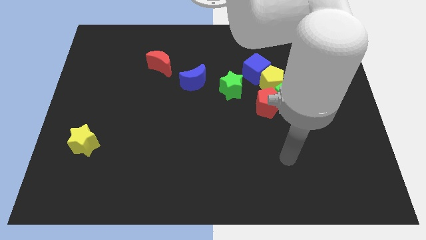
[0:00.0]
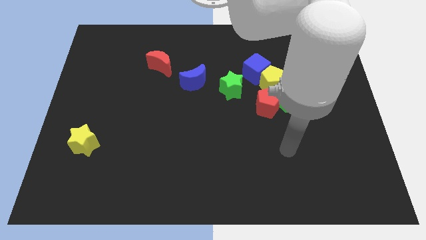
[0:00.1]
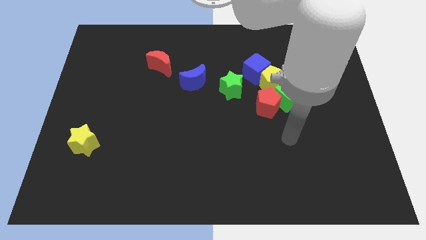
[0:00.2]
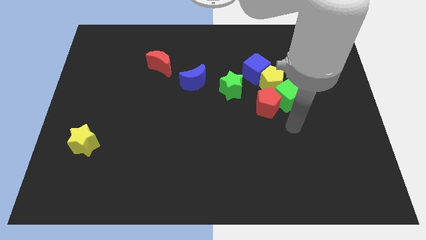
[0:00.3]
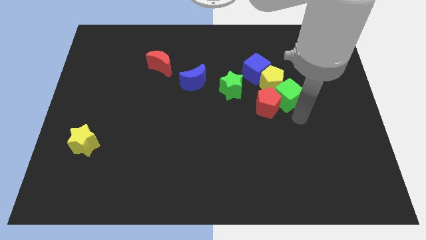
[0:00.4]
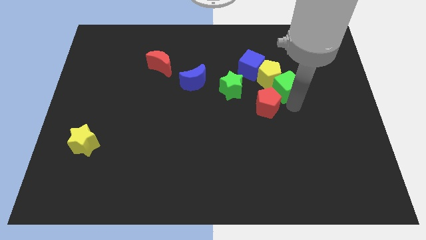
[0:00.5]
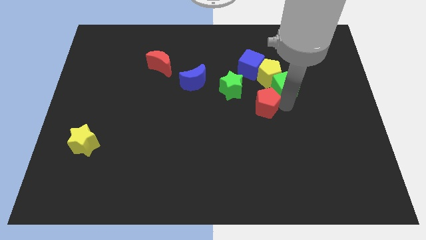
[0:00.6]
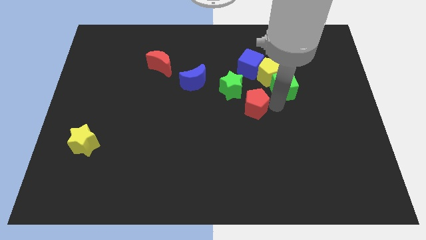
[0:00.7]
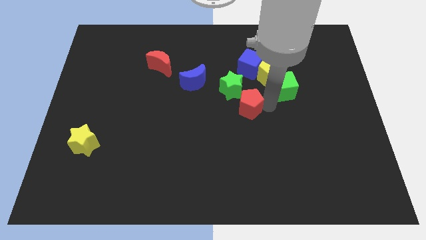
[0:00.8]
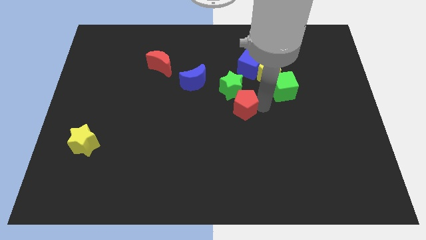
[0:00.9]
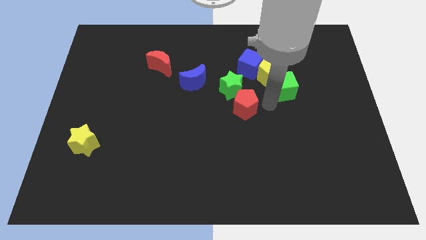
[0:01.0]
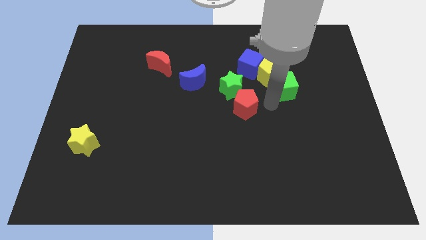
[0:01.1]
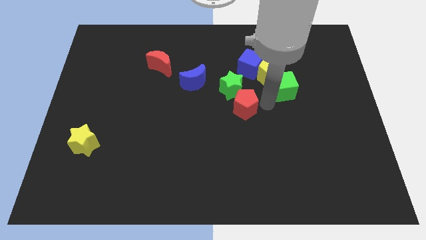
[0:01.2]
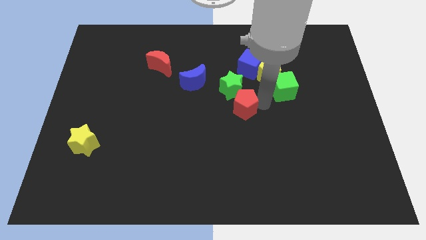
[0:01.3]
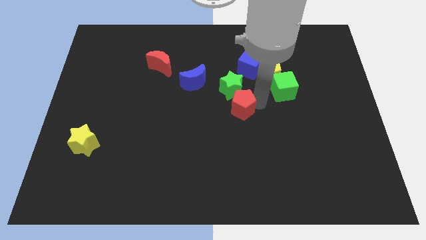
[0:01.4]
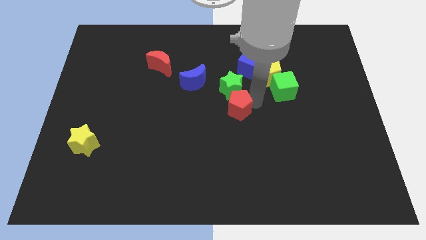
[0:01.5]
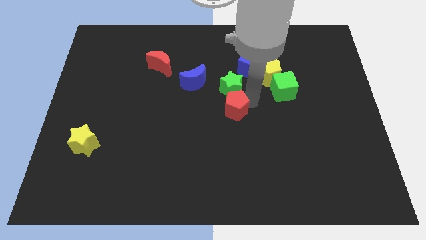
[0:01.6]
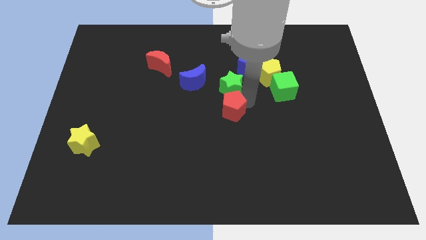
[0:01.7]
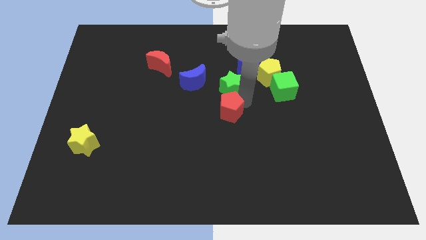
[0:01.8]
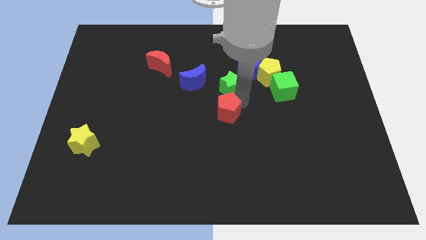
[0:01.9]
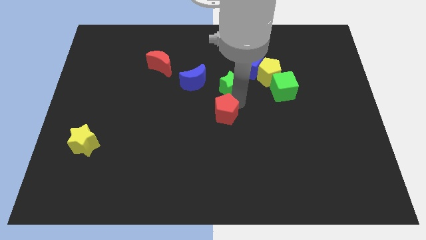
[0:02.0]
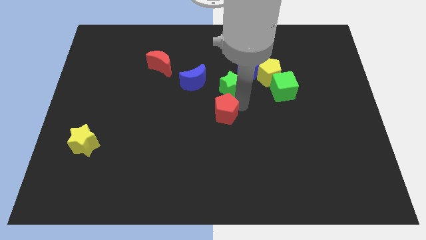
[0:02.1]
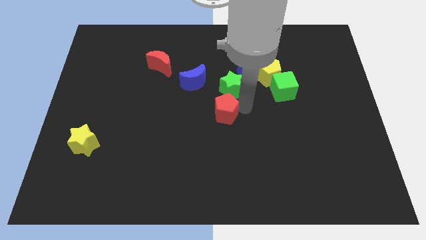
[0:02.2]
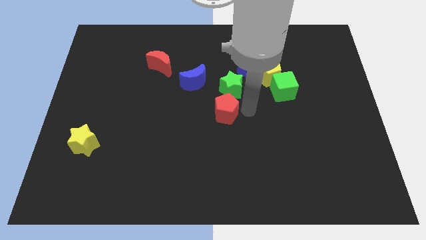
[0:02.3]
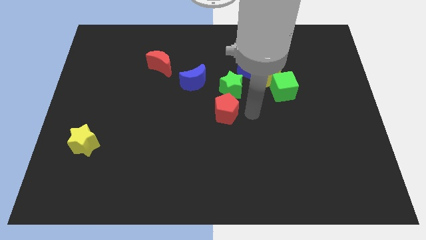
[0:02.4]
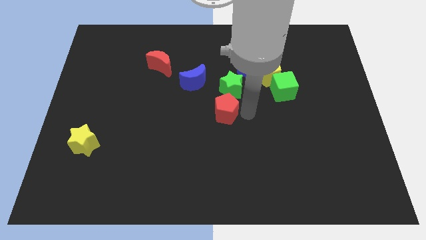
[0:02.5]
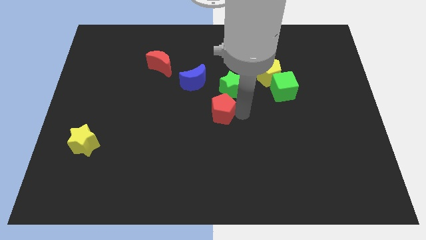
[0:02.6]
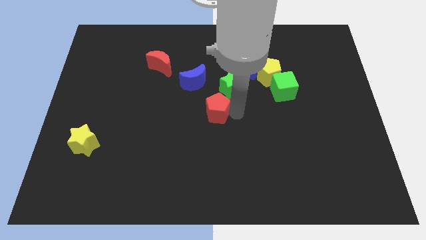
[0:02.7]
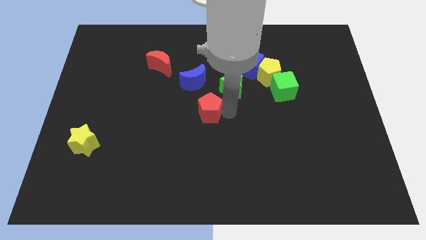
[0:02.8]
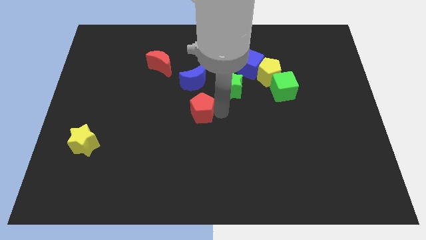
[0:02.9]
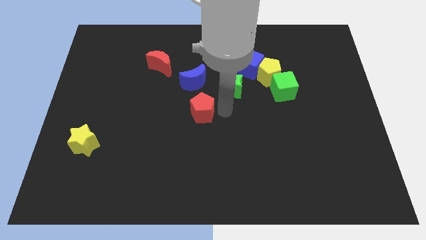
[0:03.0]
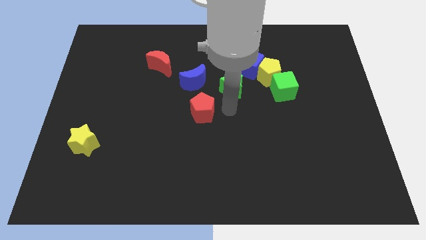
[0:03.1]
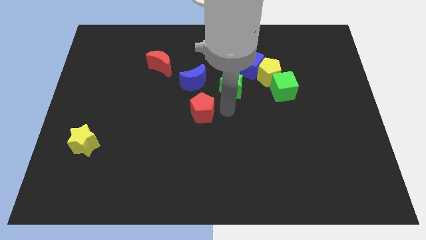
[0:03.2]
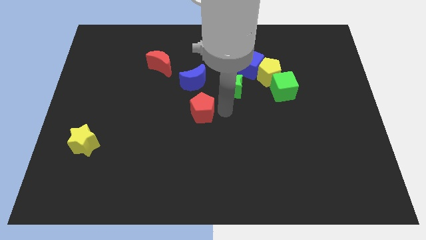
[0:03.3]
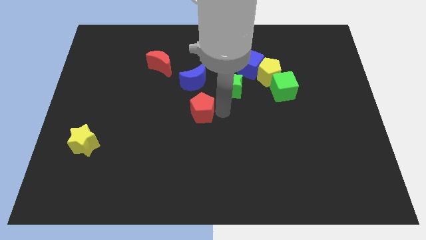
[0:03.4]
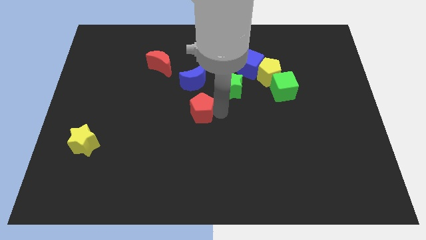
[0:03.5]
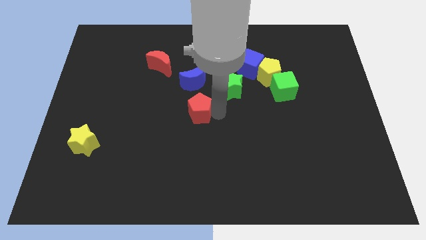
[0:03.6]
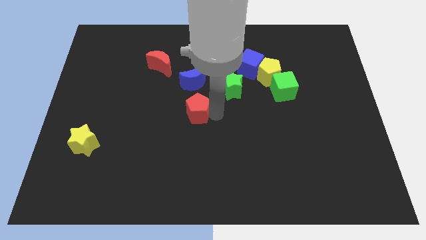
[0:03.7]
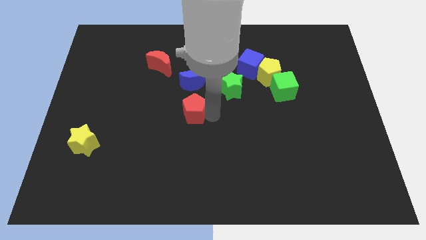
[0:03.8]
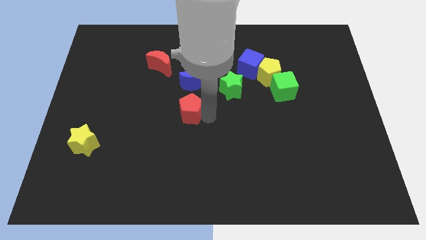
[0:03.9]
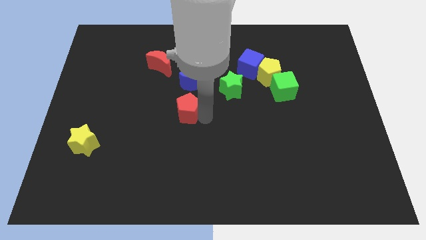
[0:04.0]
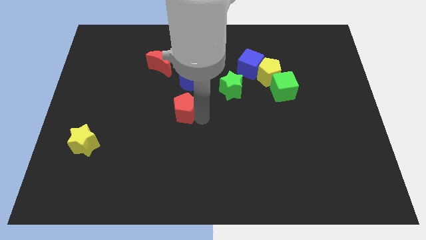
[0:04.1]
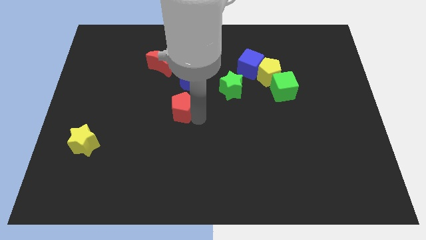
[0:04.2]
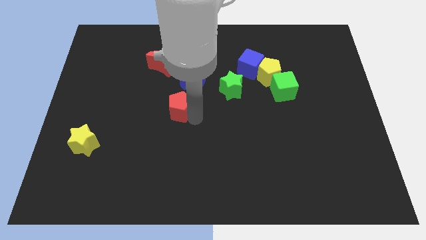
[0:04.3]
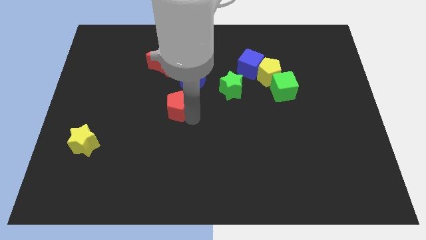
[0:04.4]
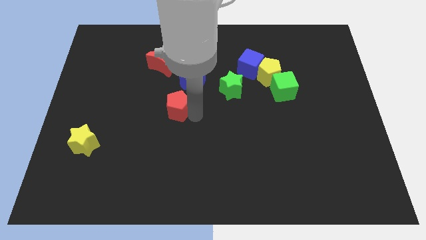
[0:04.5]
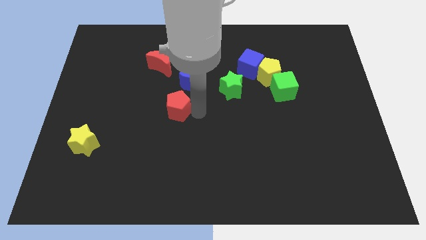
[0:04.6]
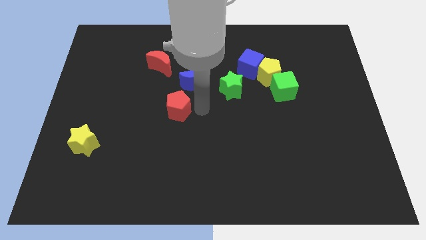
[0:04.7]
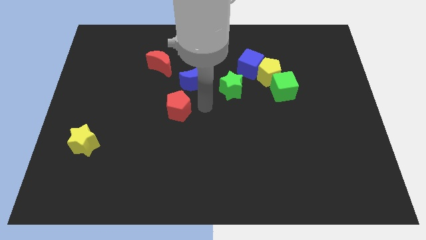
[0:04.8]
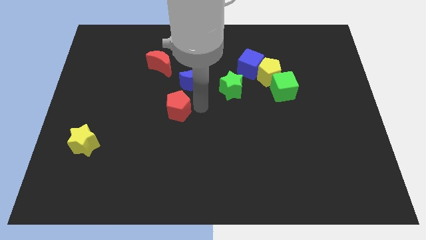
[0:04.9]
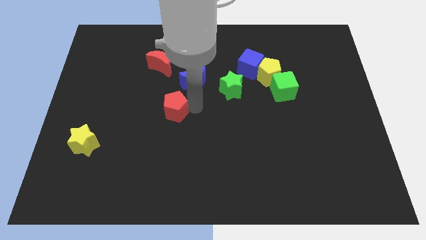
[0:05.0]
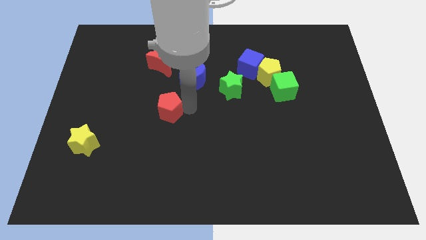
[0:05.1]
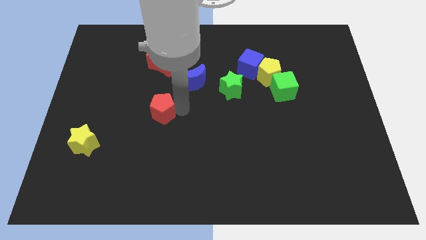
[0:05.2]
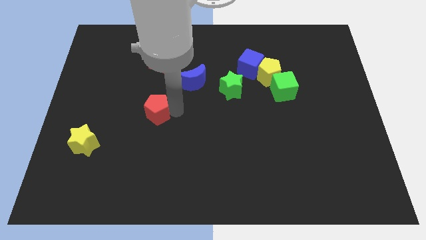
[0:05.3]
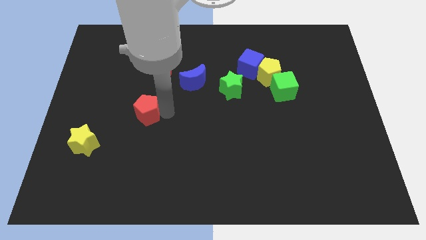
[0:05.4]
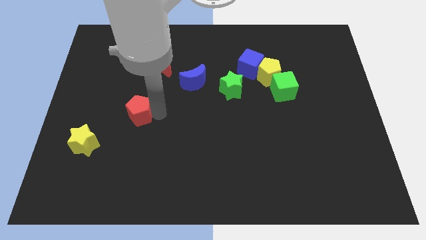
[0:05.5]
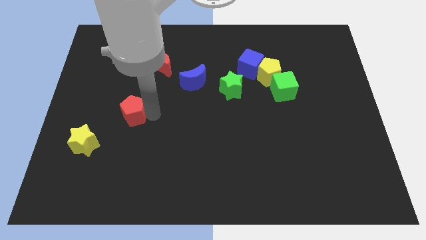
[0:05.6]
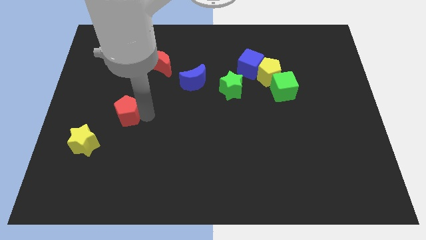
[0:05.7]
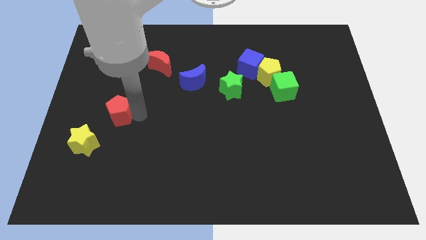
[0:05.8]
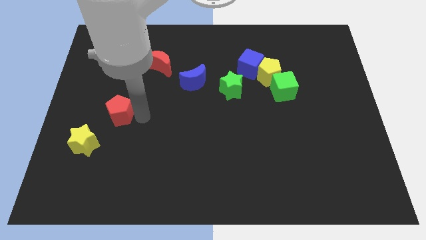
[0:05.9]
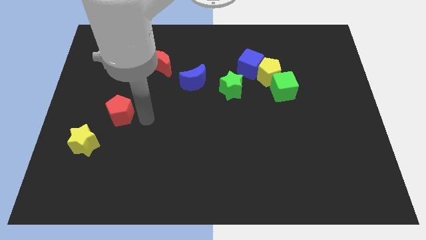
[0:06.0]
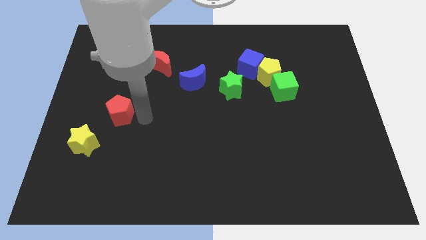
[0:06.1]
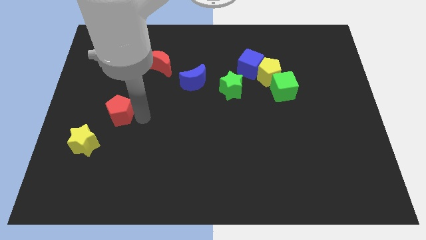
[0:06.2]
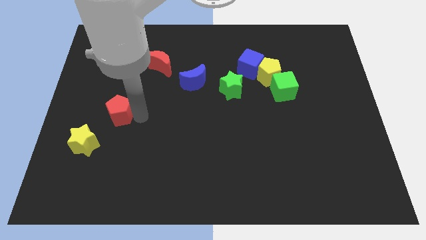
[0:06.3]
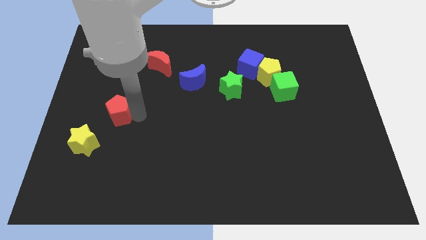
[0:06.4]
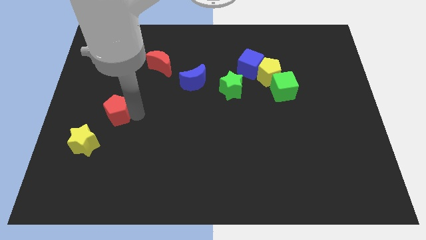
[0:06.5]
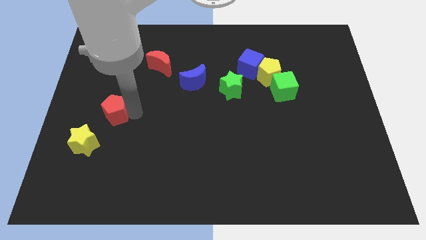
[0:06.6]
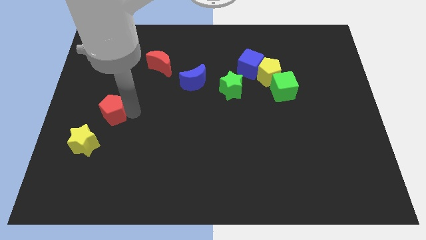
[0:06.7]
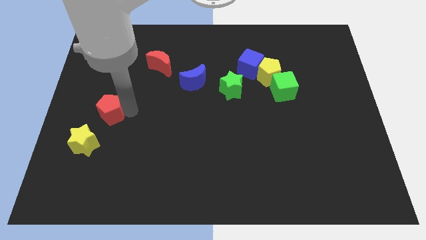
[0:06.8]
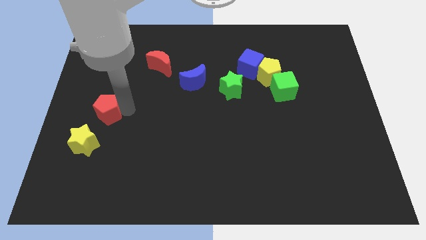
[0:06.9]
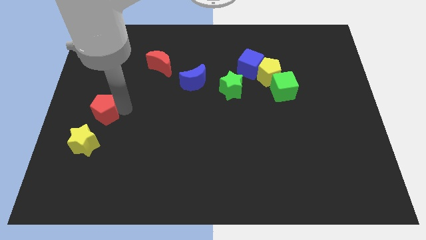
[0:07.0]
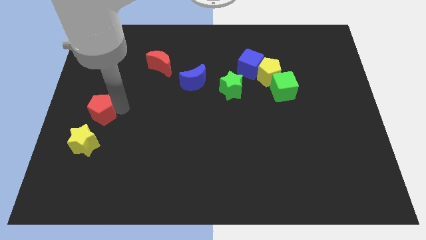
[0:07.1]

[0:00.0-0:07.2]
slide the red pentagon to the left side

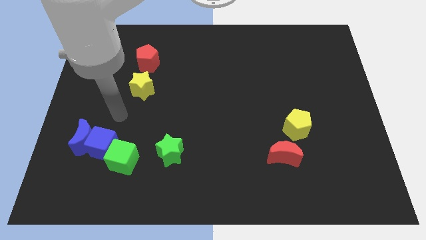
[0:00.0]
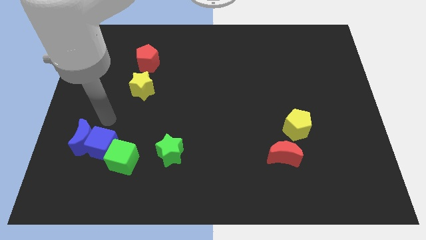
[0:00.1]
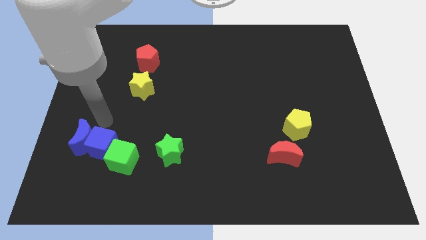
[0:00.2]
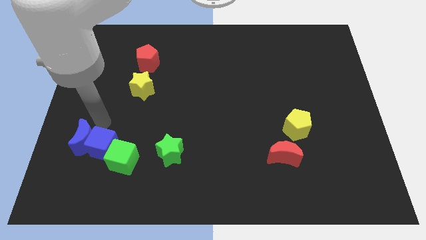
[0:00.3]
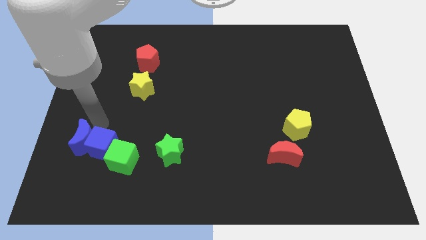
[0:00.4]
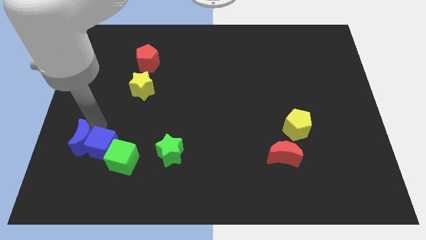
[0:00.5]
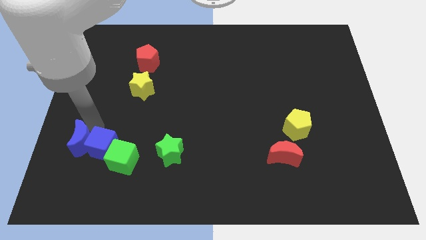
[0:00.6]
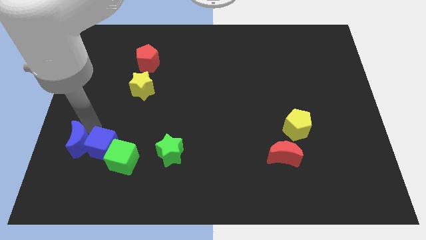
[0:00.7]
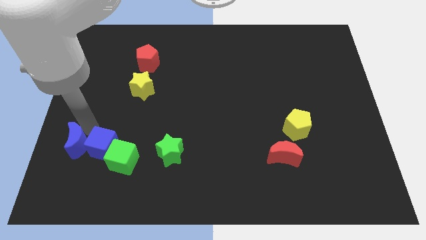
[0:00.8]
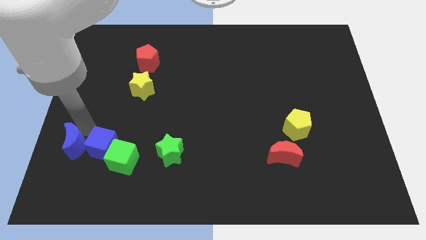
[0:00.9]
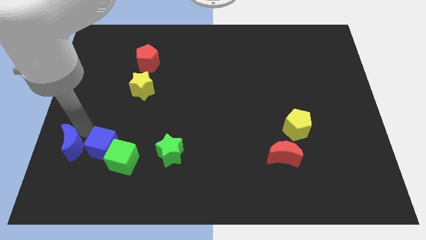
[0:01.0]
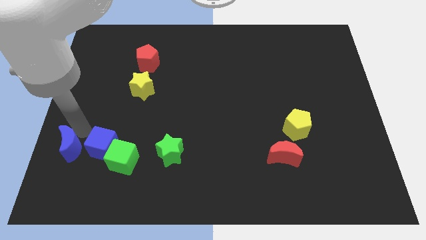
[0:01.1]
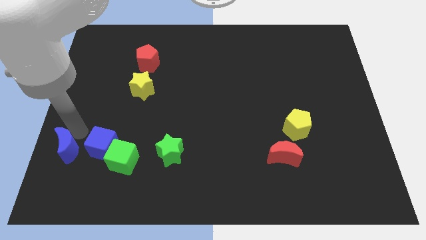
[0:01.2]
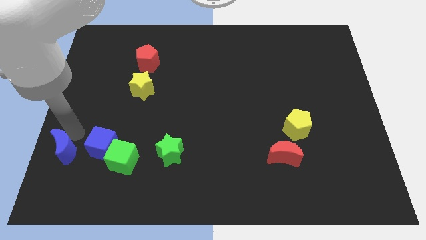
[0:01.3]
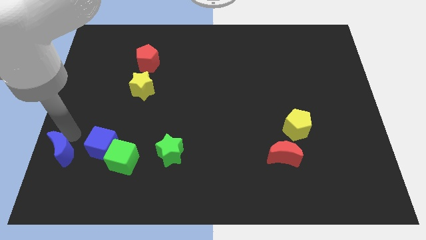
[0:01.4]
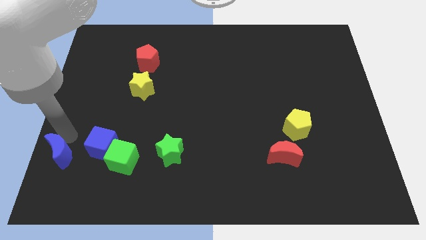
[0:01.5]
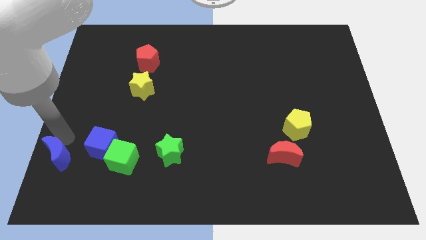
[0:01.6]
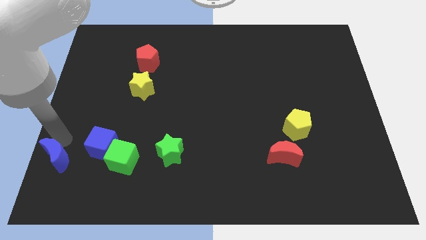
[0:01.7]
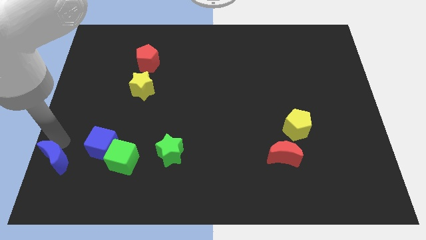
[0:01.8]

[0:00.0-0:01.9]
put the blue moon to the bottom left
